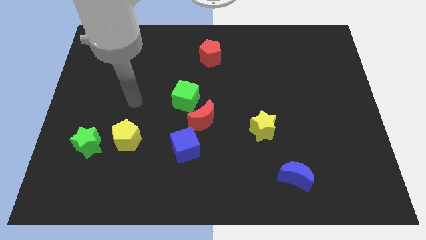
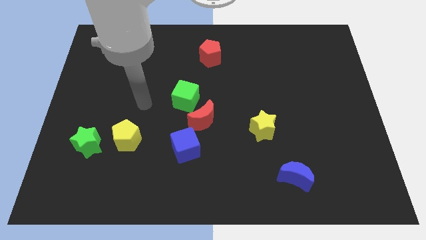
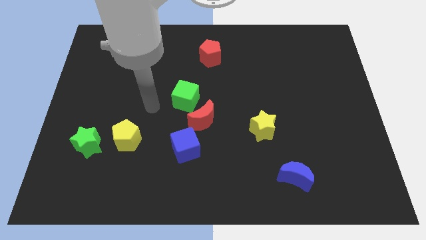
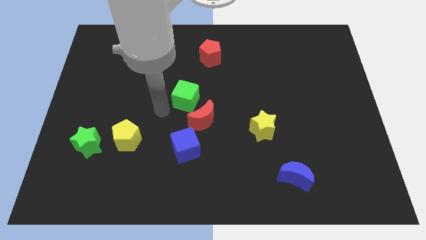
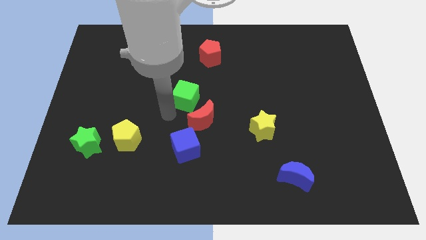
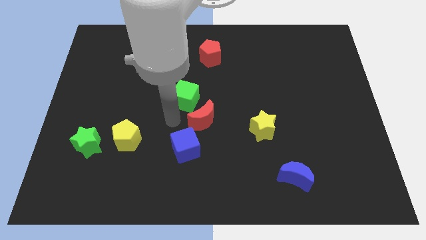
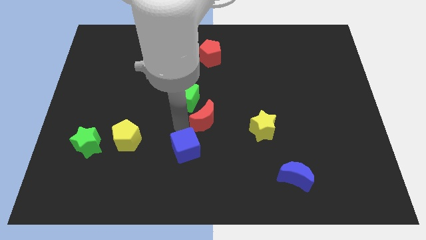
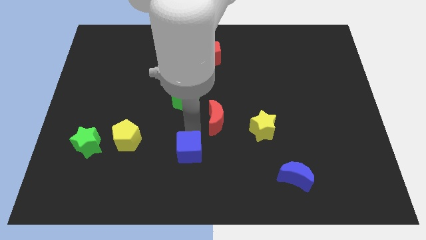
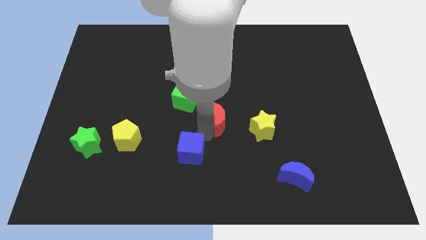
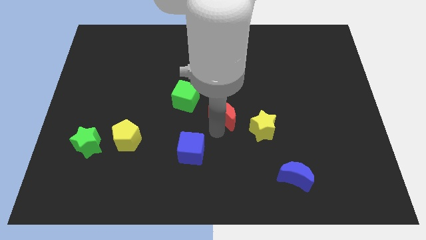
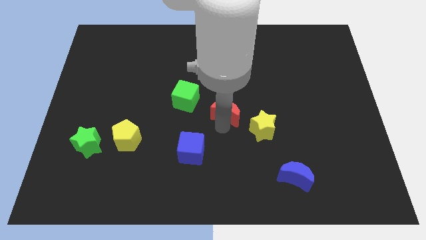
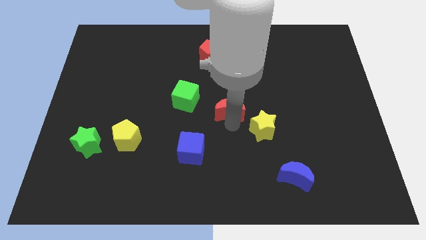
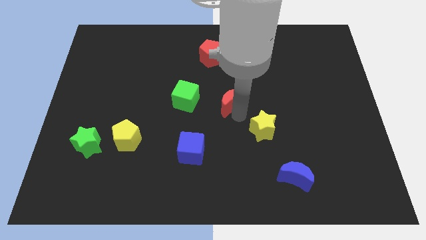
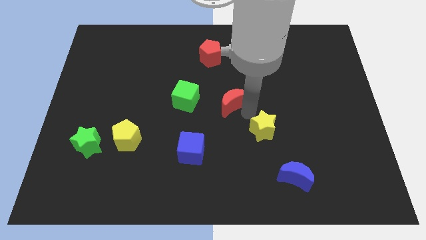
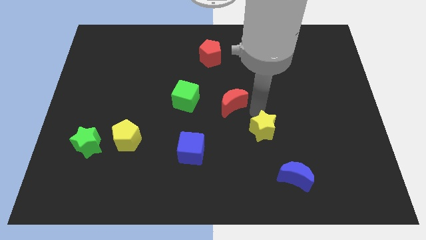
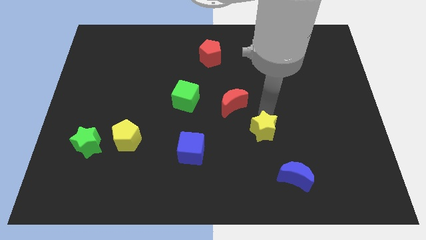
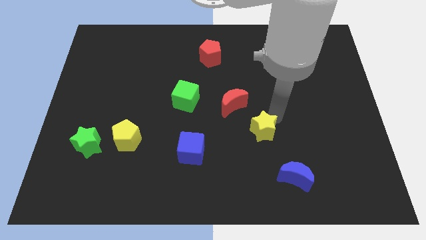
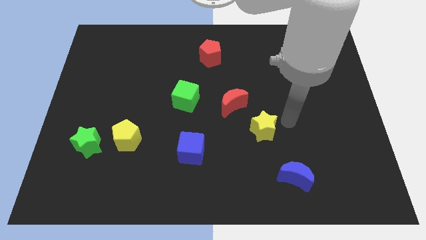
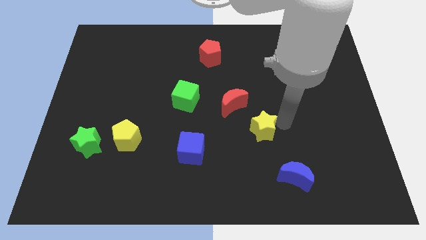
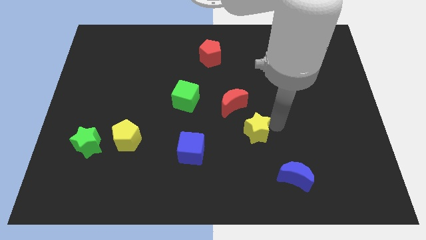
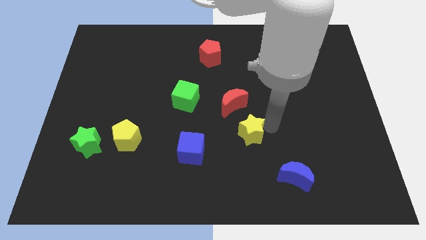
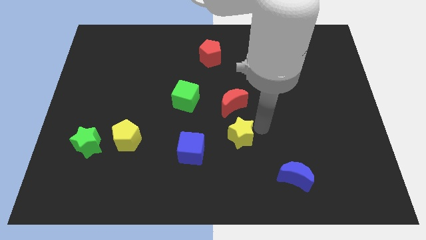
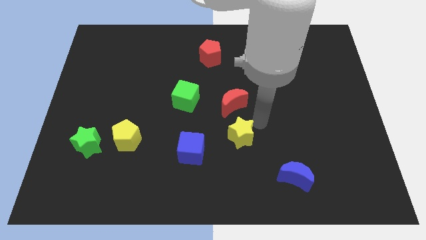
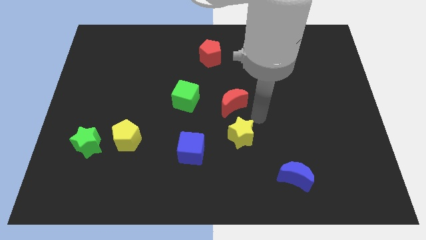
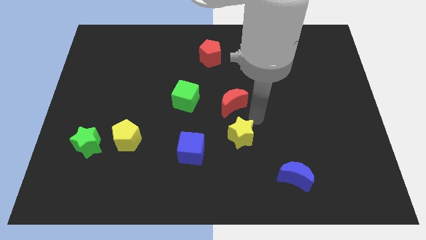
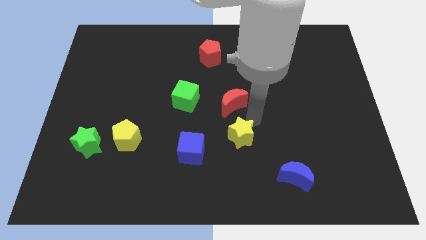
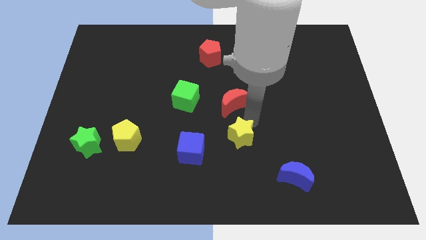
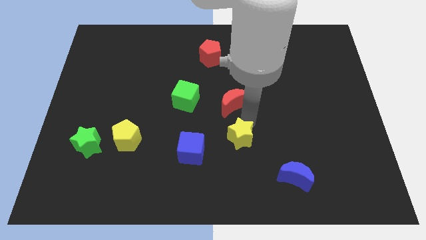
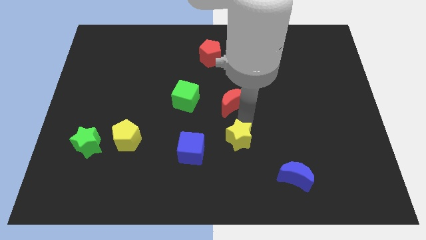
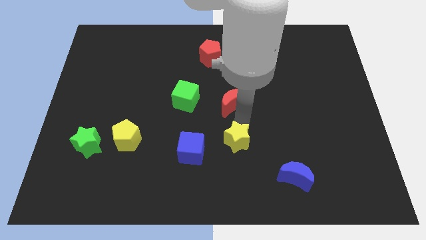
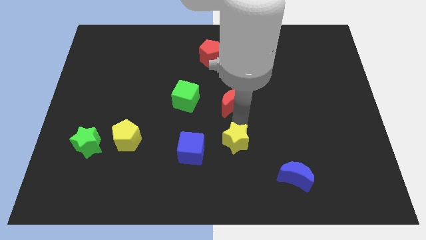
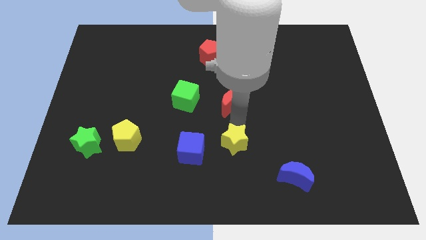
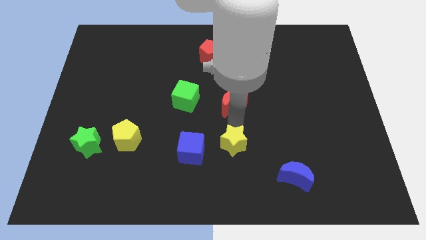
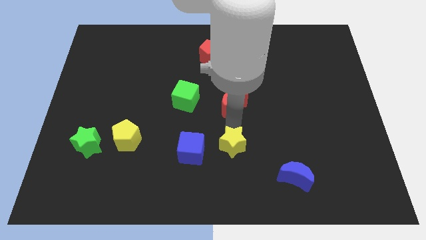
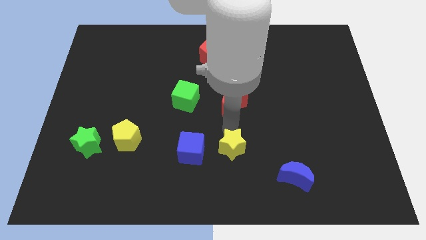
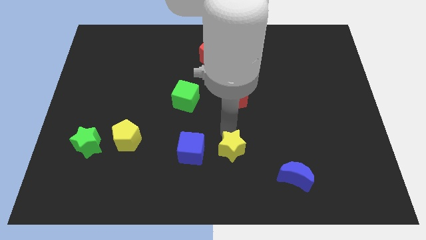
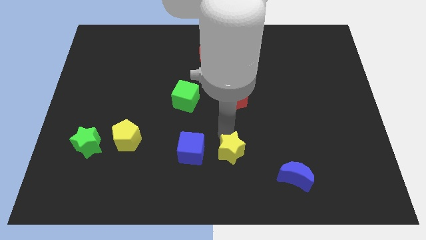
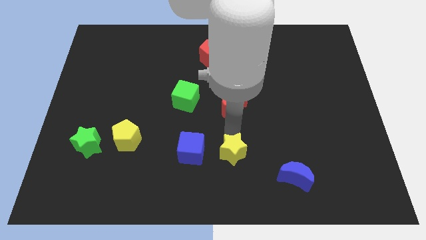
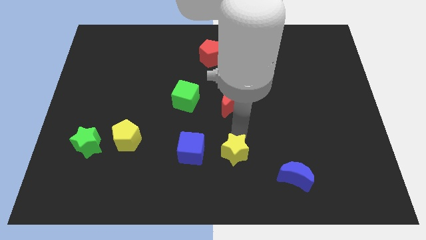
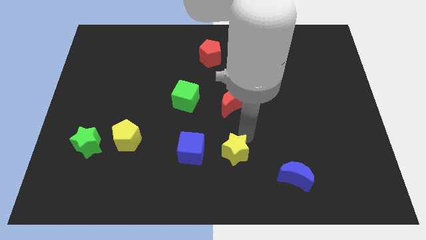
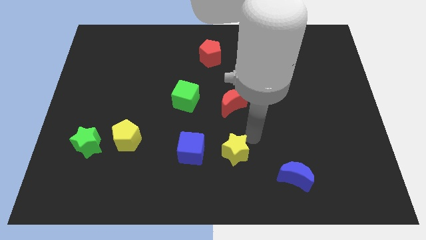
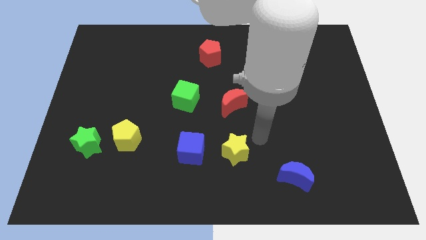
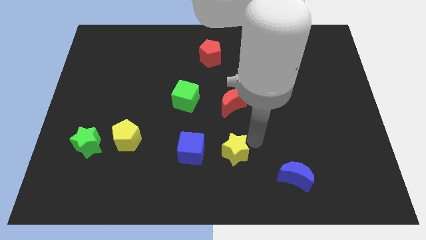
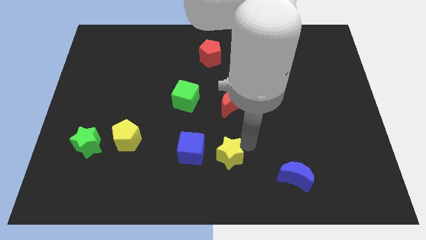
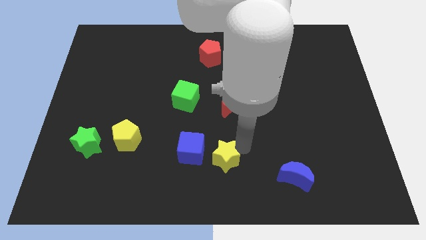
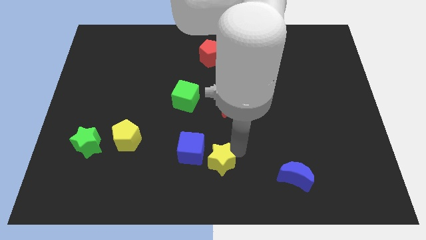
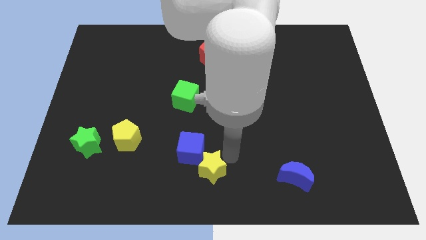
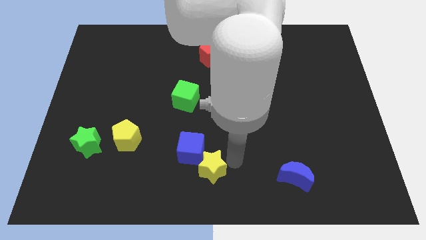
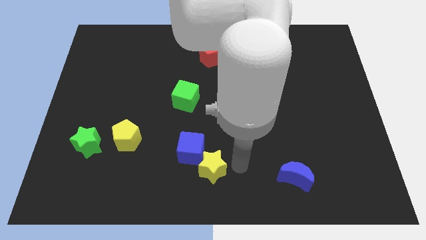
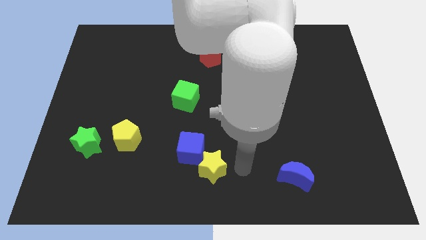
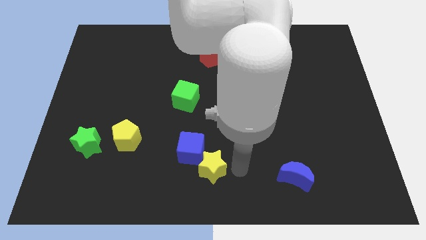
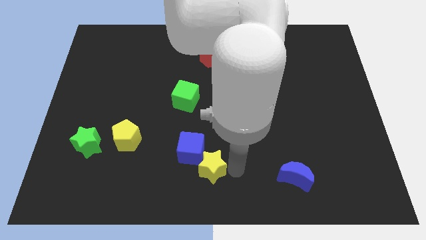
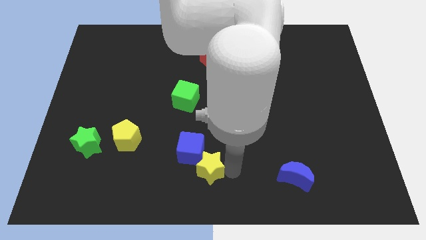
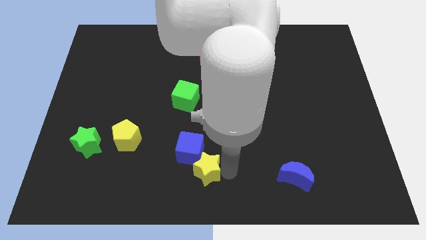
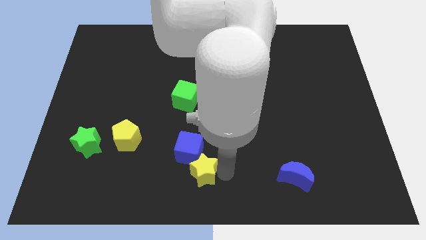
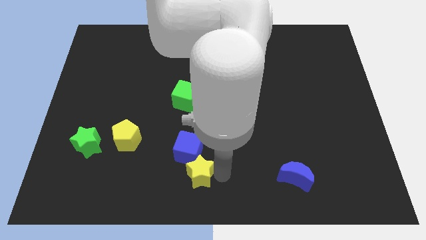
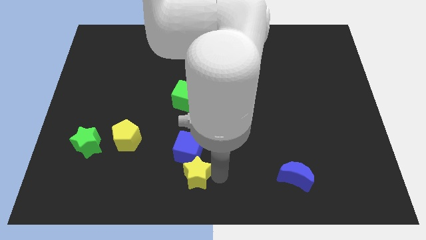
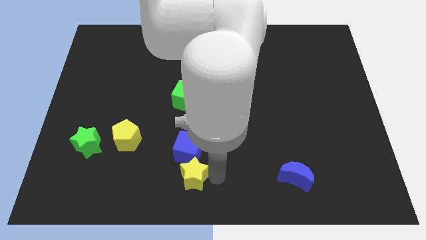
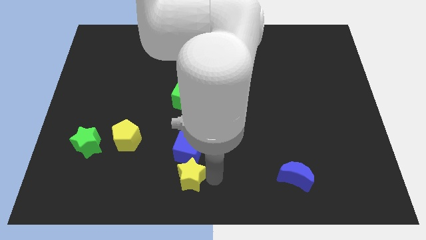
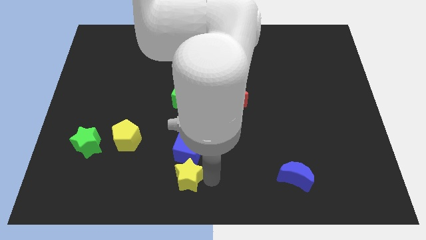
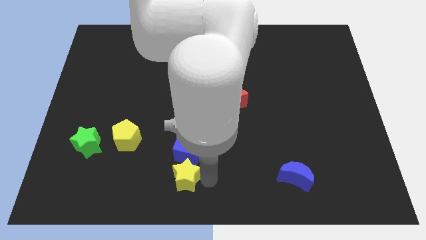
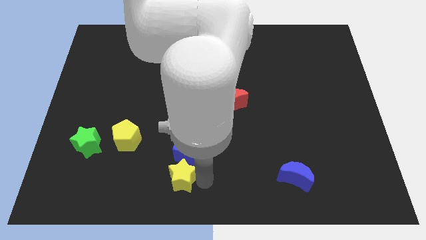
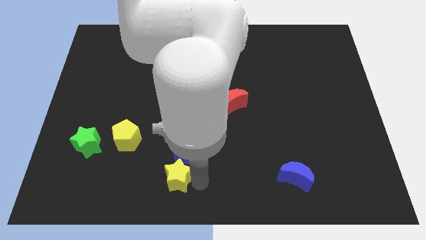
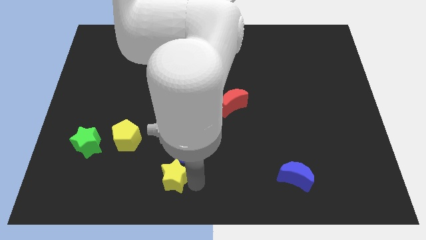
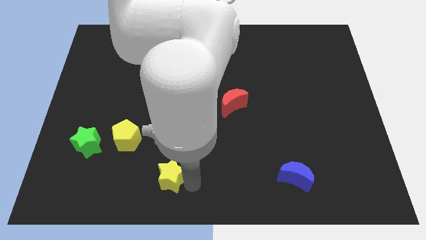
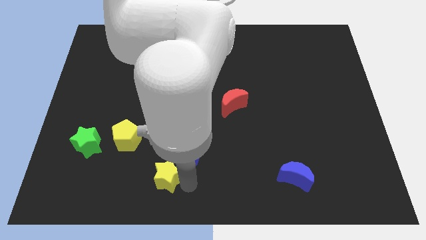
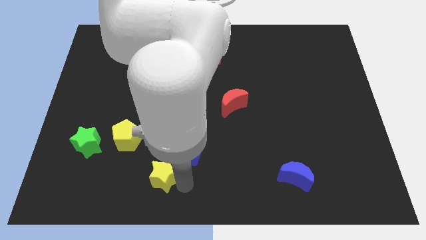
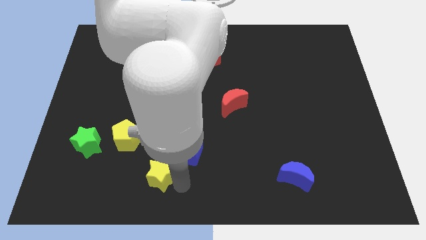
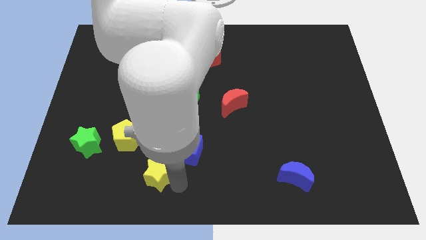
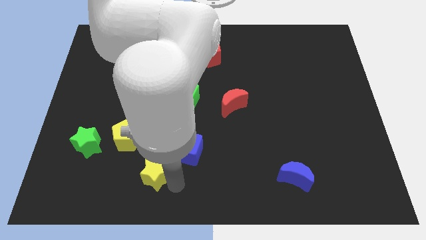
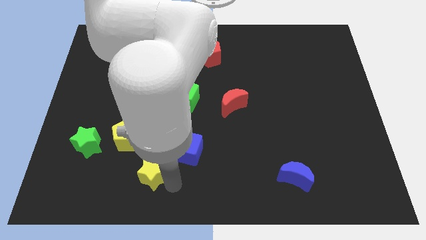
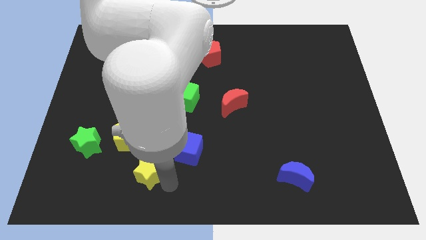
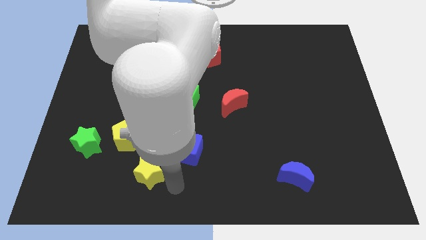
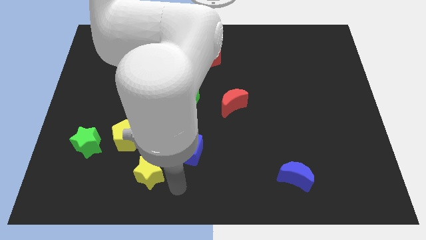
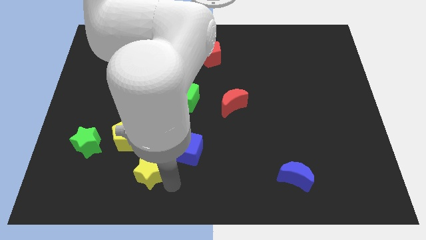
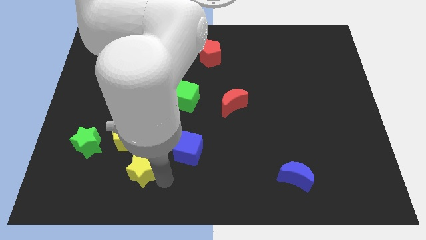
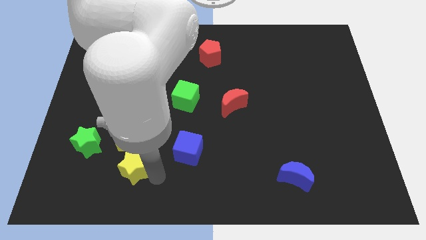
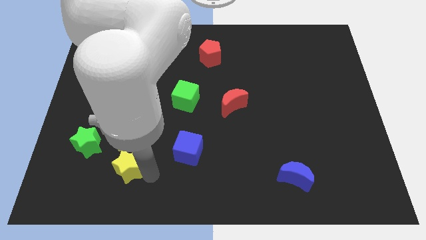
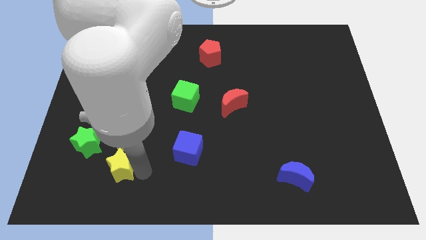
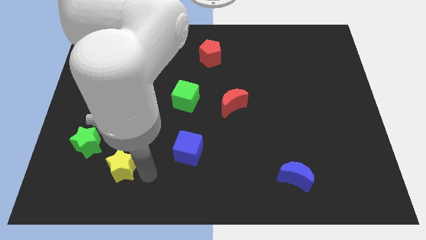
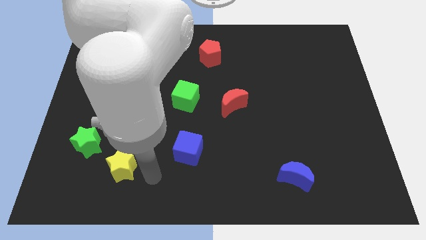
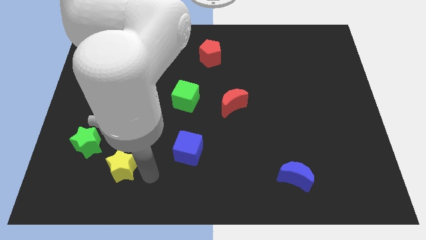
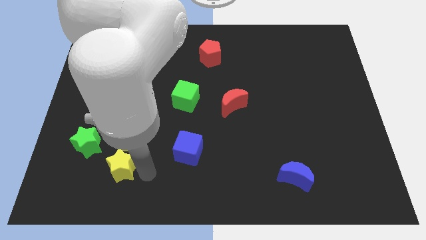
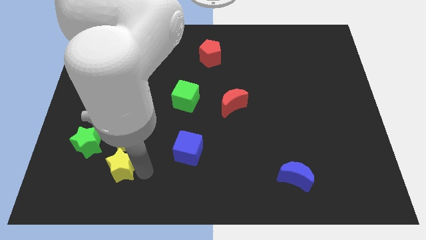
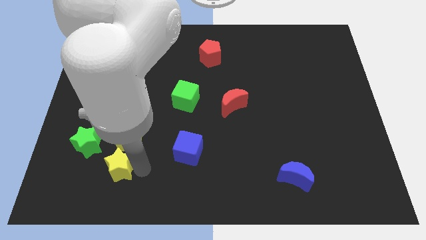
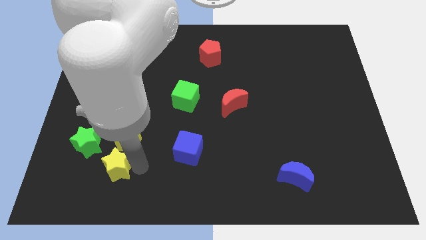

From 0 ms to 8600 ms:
move the yellow star to the bottom left side of the yellow pentagon
